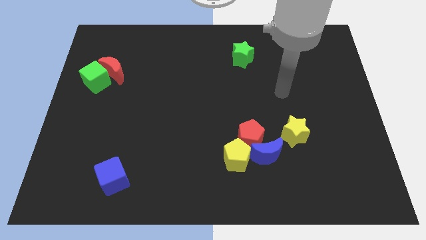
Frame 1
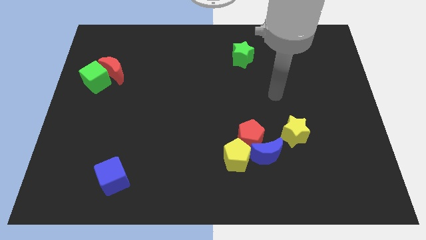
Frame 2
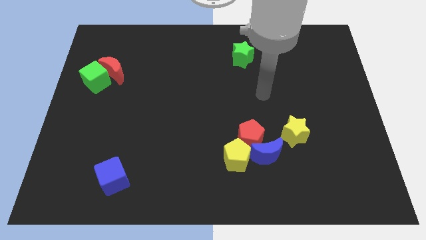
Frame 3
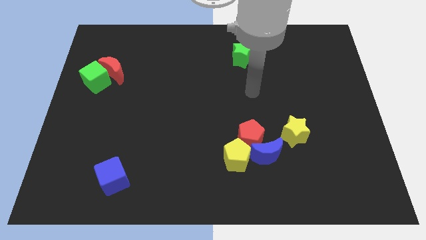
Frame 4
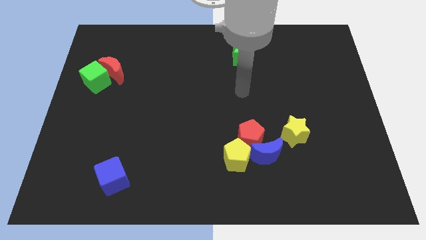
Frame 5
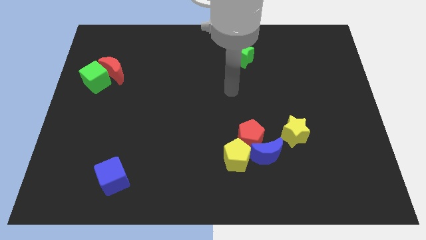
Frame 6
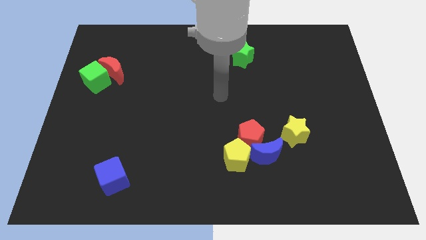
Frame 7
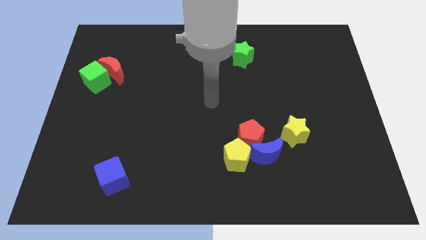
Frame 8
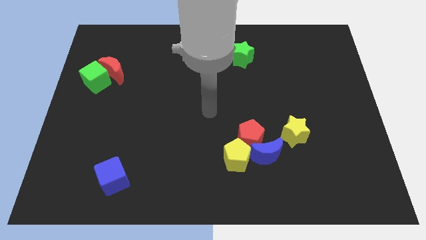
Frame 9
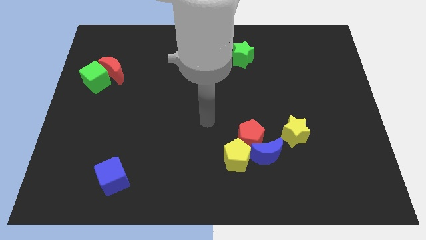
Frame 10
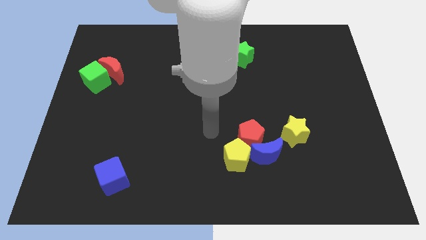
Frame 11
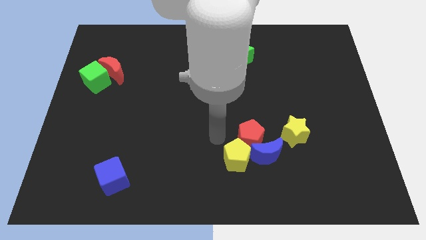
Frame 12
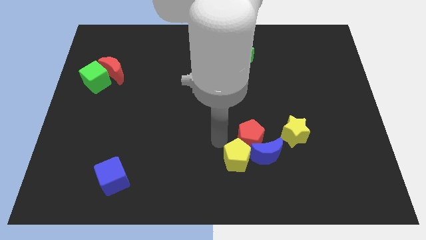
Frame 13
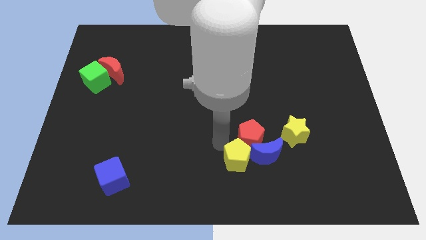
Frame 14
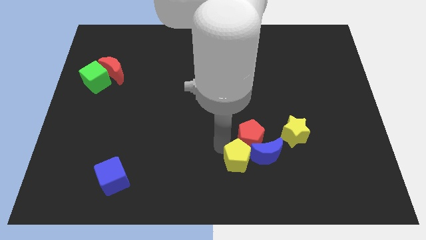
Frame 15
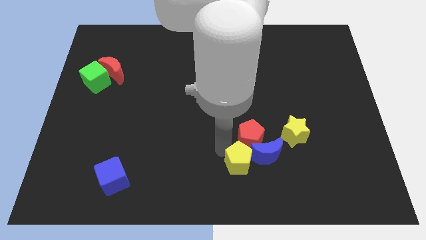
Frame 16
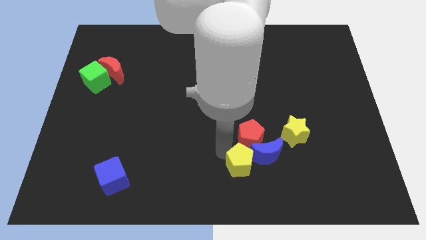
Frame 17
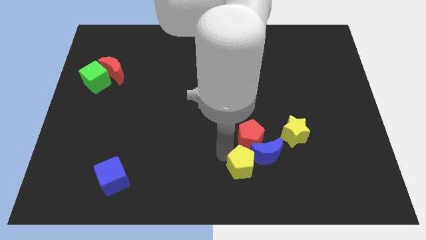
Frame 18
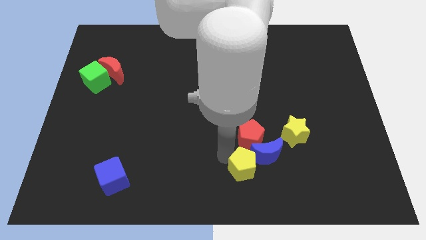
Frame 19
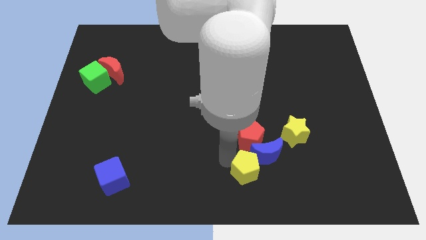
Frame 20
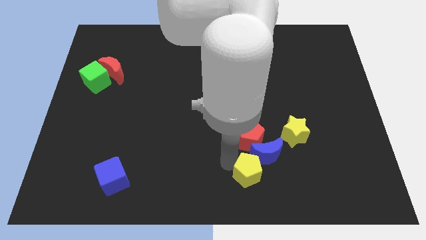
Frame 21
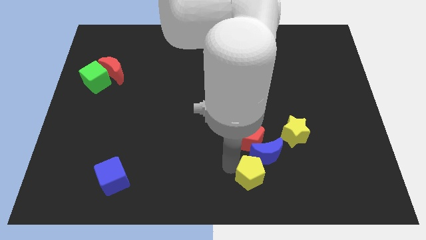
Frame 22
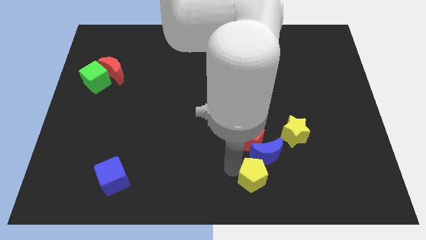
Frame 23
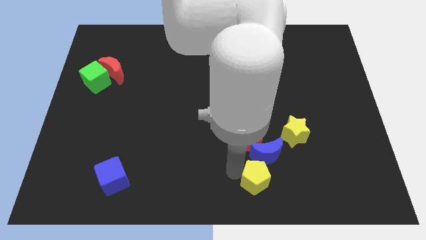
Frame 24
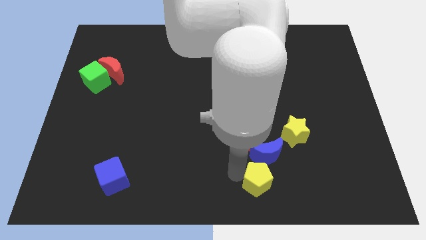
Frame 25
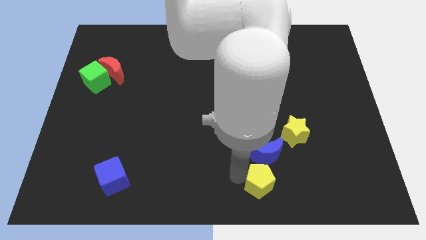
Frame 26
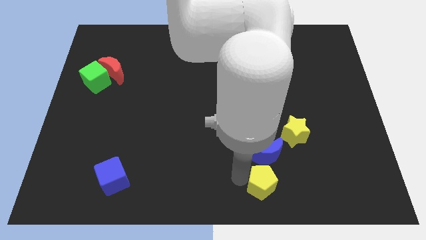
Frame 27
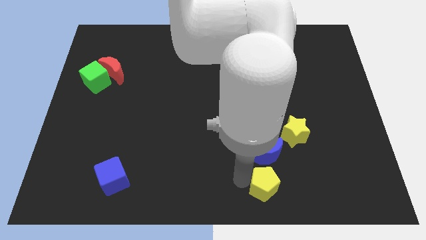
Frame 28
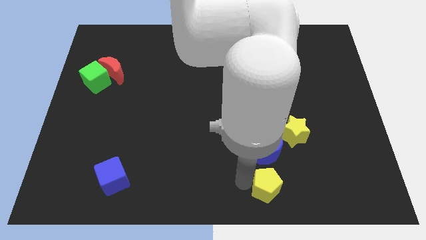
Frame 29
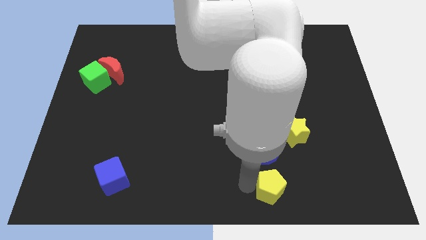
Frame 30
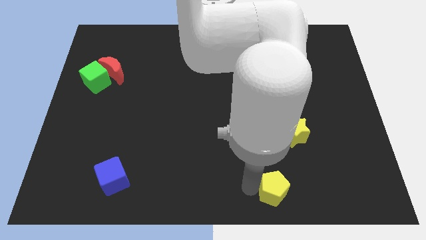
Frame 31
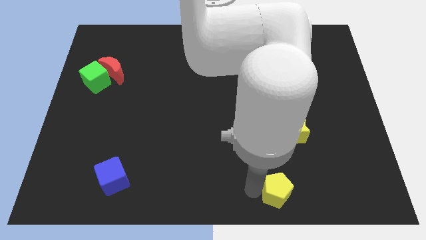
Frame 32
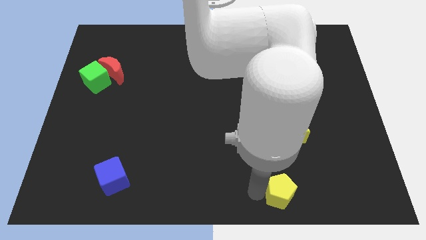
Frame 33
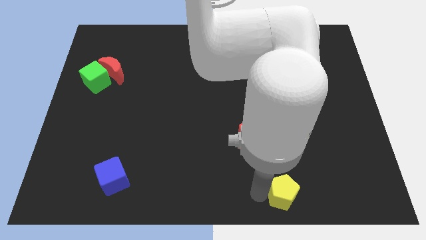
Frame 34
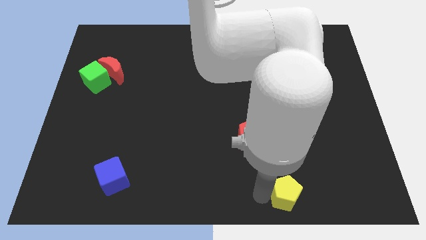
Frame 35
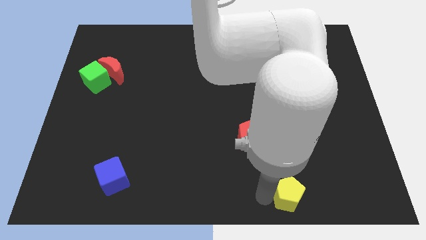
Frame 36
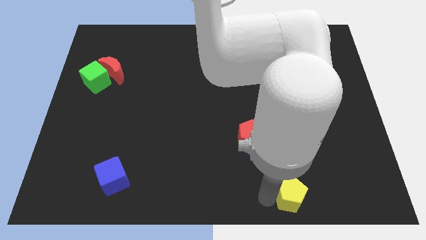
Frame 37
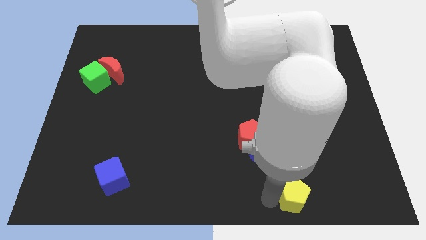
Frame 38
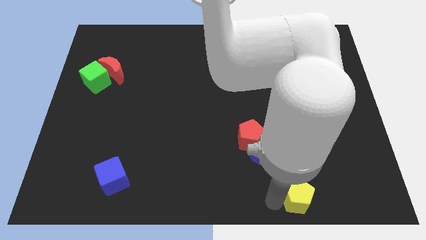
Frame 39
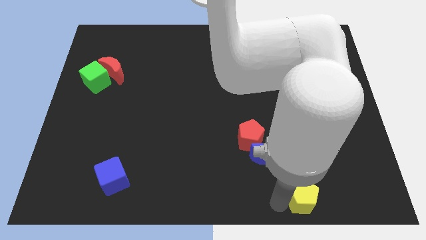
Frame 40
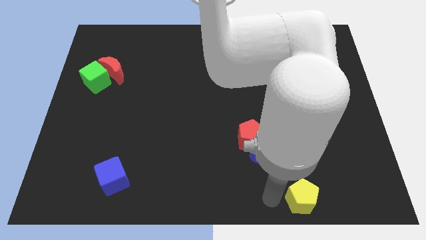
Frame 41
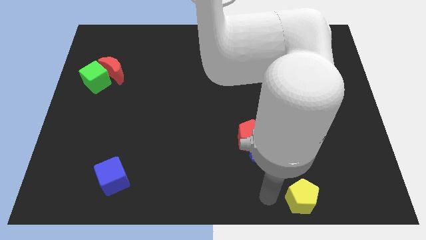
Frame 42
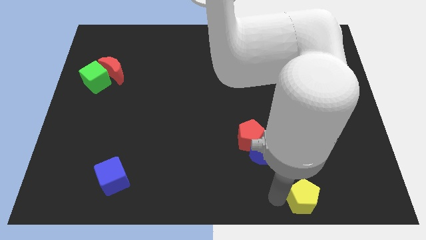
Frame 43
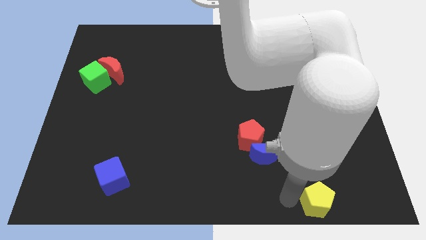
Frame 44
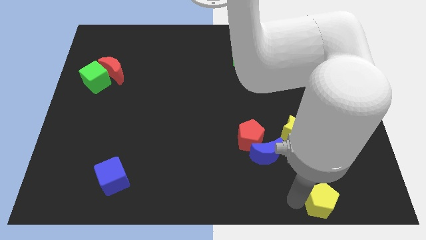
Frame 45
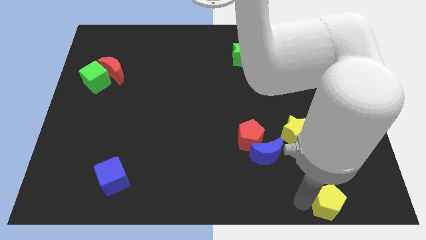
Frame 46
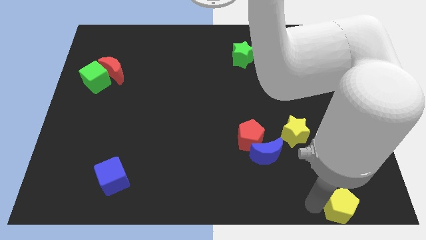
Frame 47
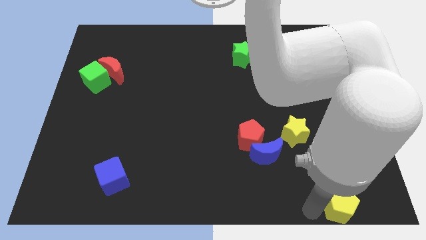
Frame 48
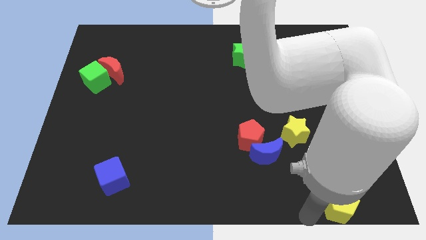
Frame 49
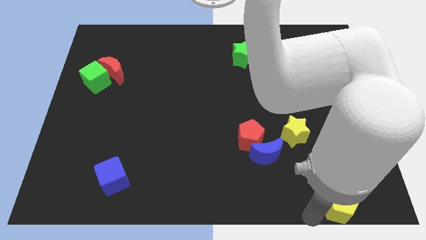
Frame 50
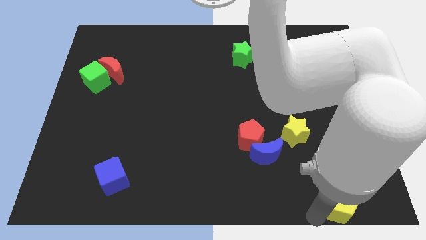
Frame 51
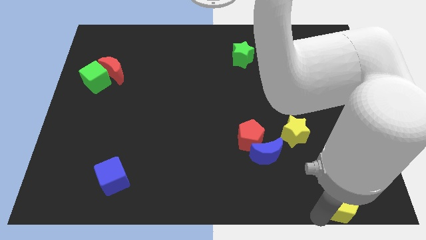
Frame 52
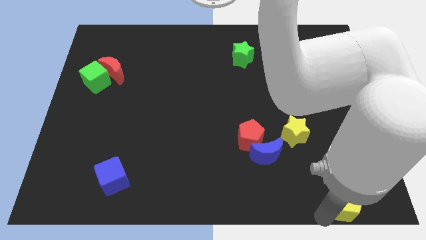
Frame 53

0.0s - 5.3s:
move the yellow pentagon to the bottom right corner

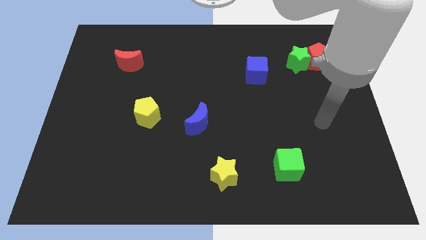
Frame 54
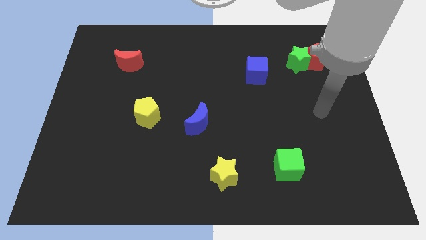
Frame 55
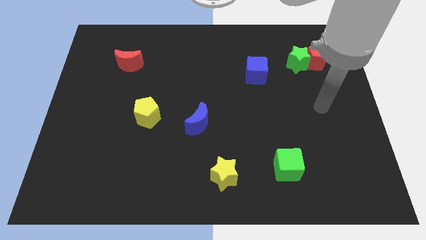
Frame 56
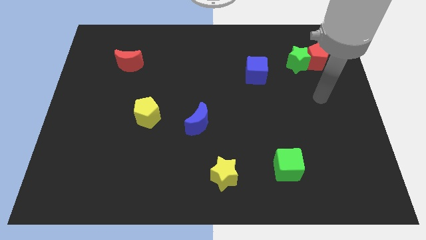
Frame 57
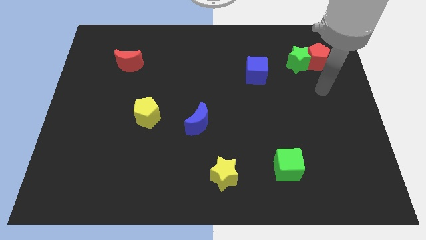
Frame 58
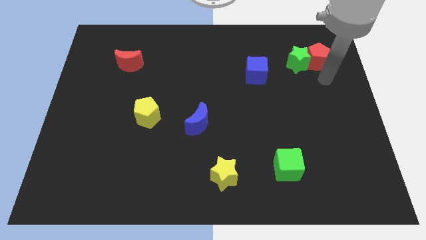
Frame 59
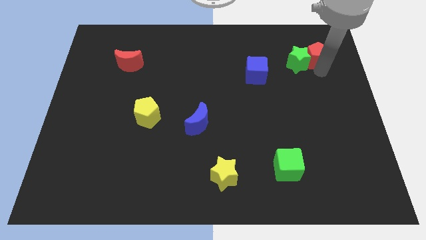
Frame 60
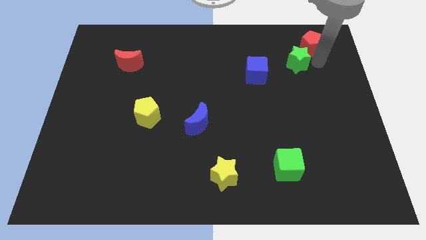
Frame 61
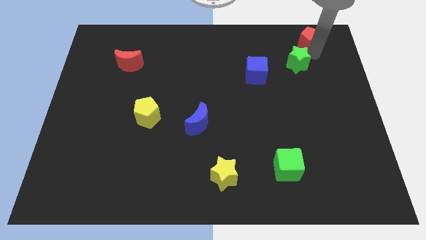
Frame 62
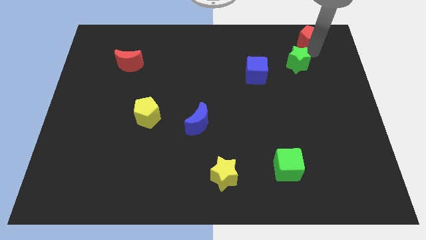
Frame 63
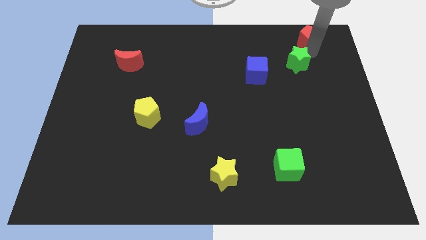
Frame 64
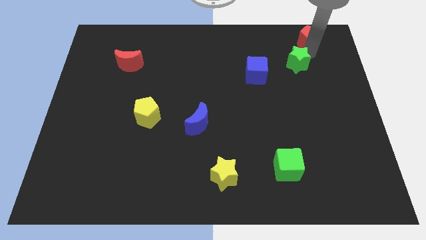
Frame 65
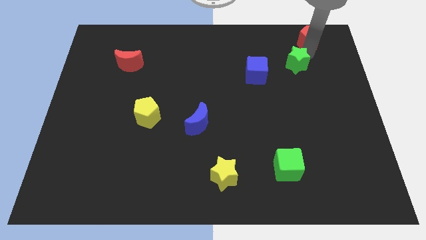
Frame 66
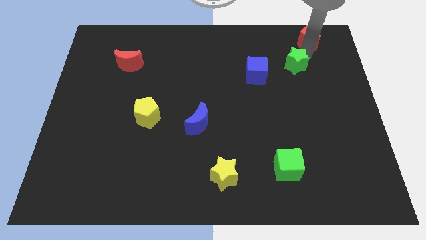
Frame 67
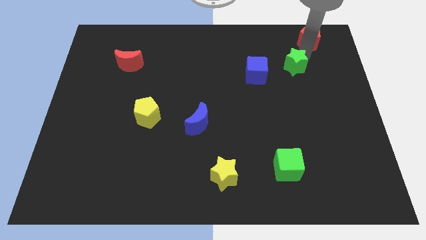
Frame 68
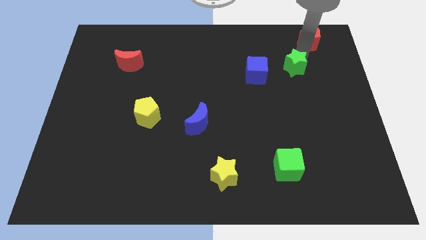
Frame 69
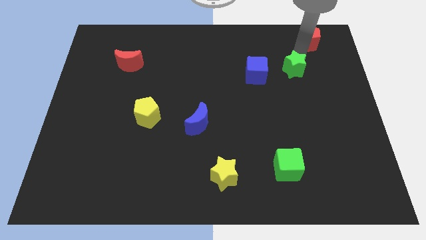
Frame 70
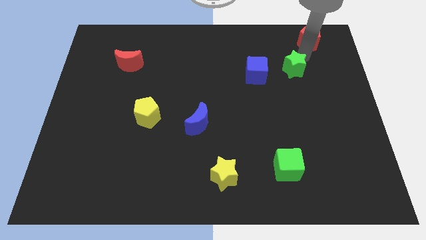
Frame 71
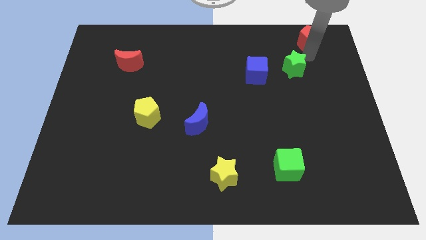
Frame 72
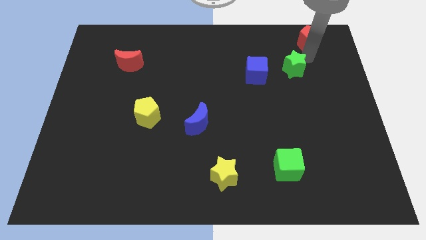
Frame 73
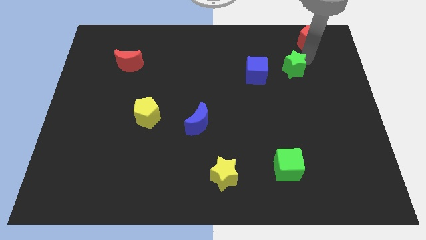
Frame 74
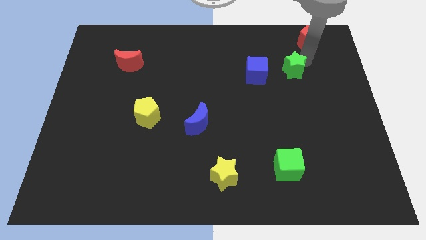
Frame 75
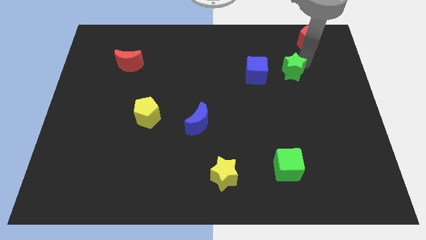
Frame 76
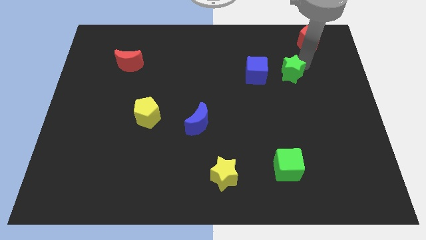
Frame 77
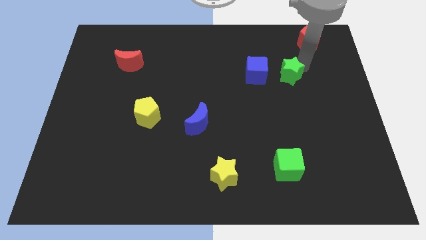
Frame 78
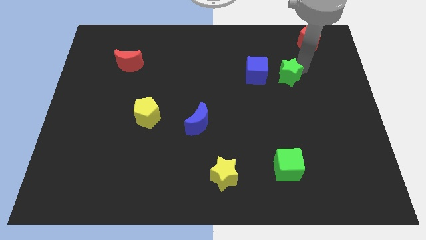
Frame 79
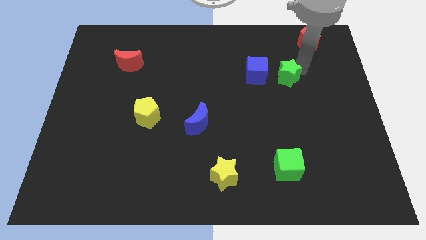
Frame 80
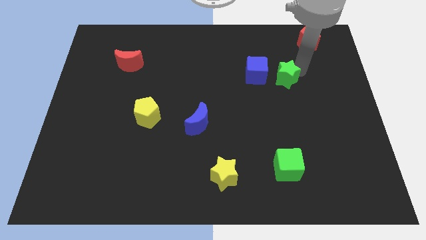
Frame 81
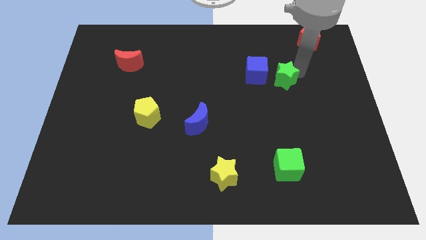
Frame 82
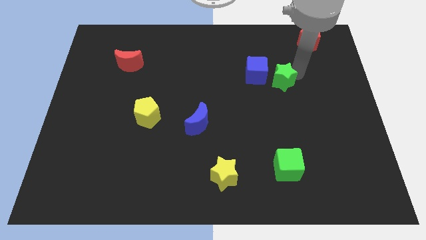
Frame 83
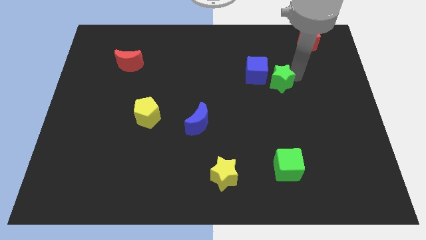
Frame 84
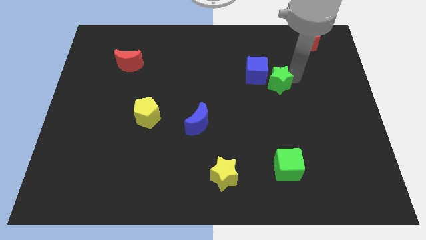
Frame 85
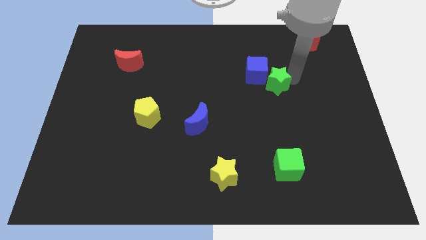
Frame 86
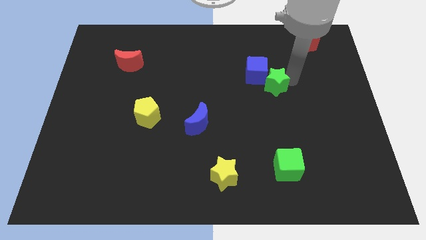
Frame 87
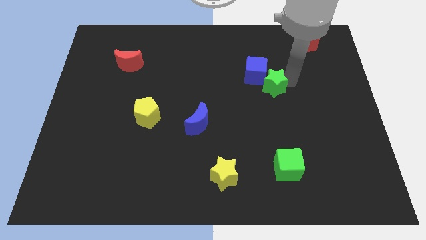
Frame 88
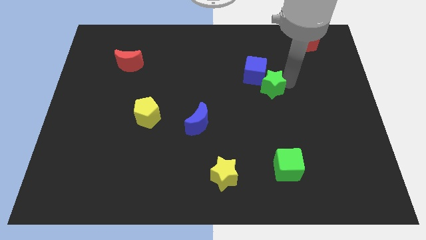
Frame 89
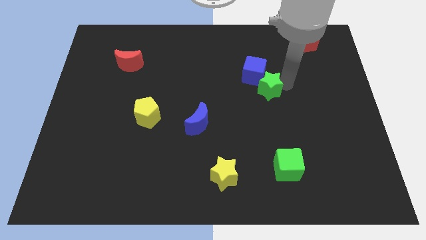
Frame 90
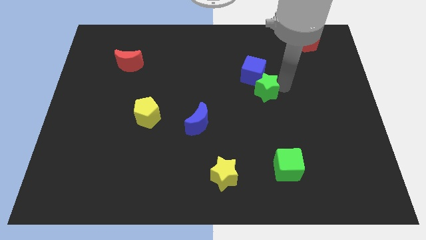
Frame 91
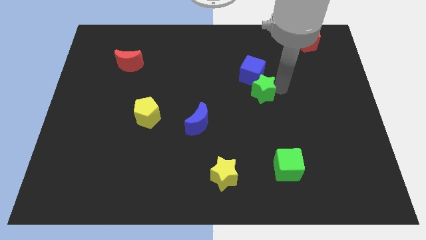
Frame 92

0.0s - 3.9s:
put the green star to the center of the board
